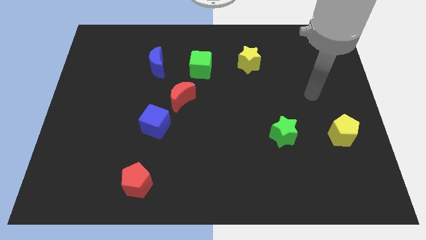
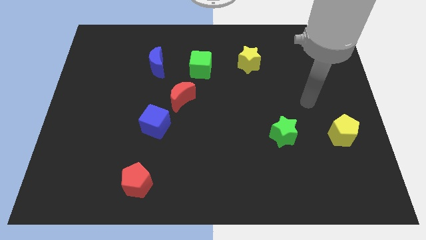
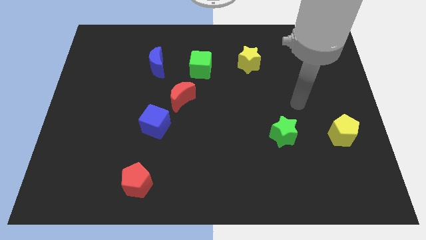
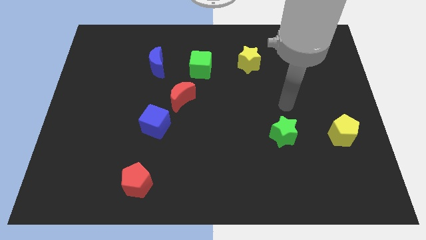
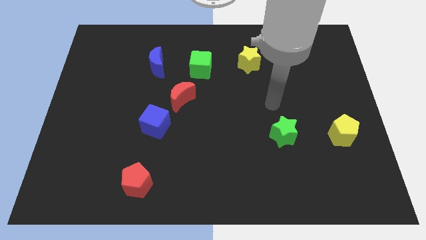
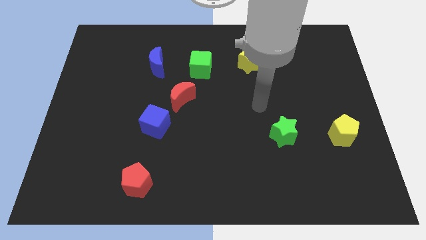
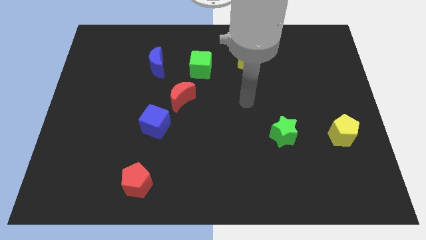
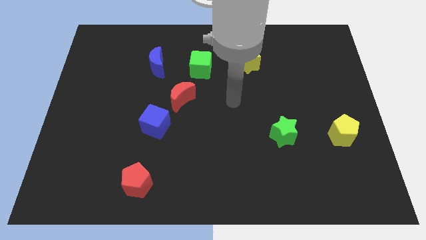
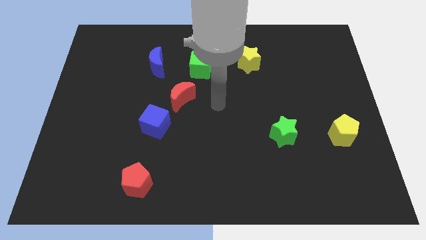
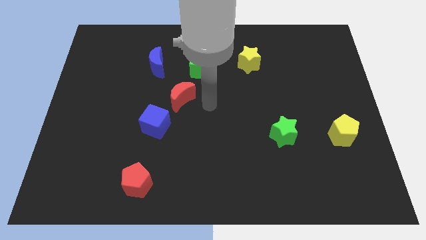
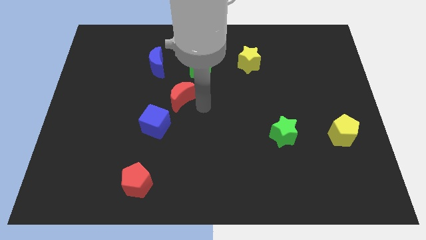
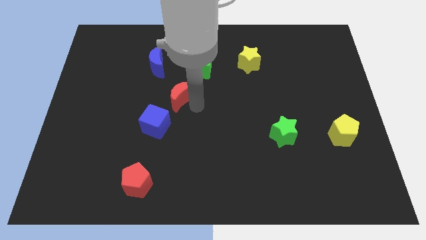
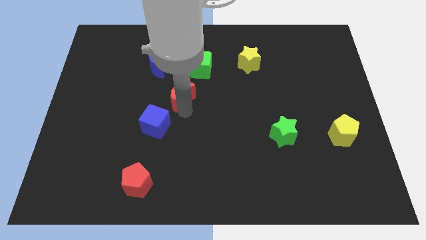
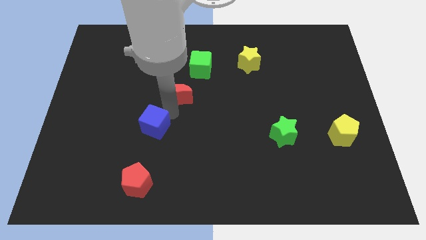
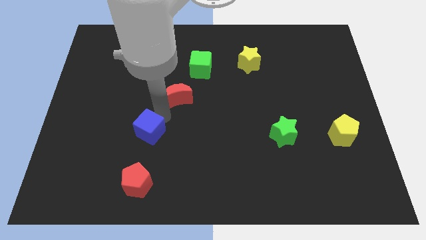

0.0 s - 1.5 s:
separate the red moon from the blue cube

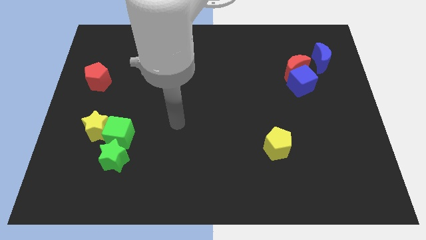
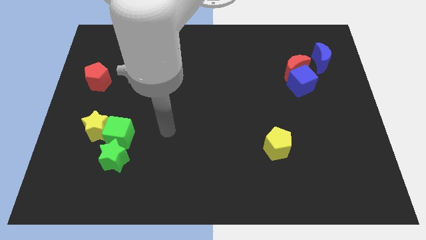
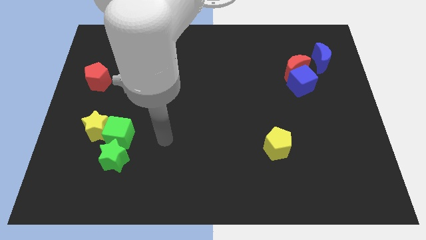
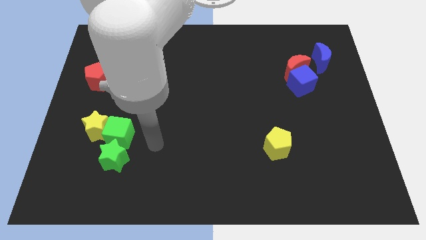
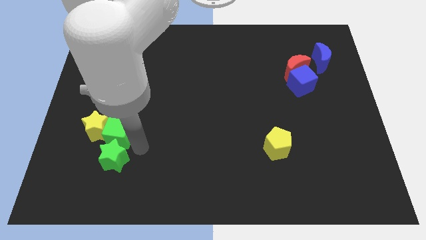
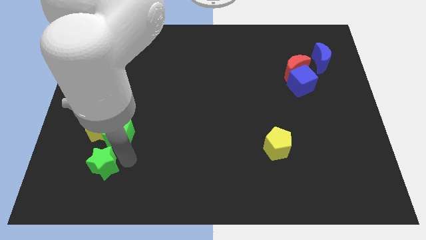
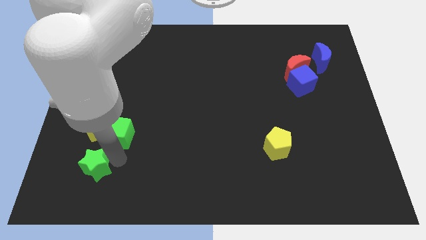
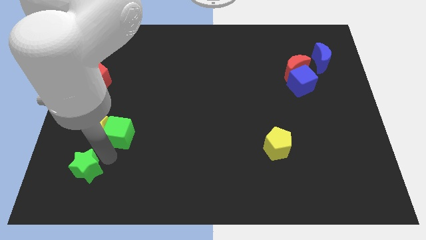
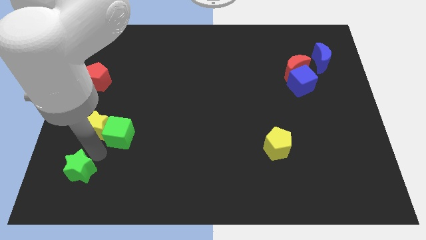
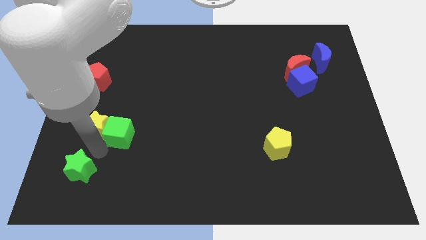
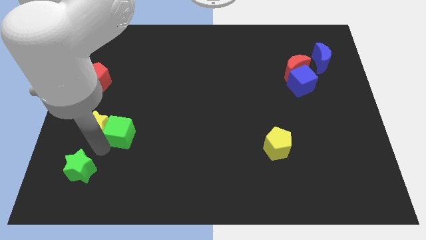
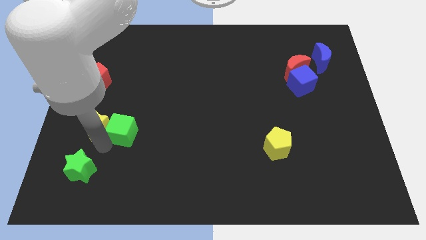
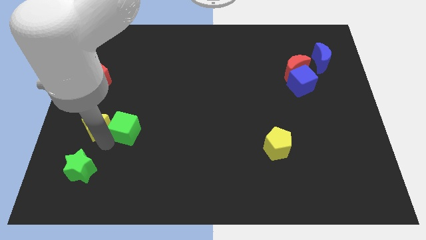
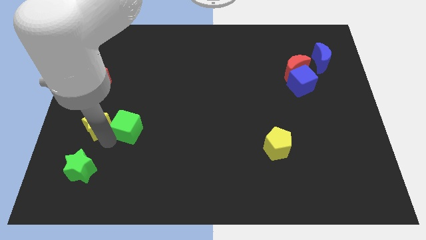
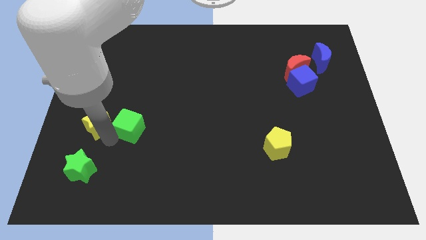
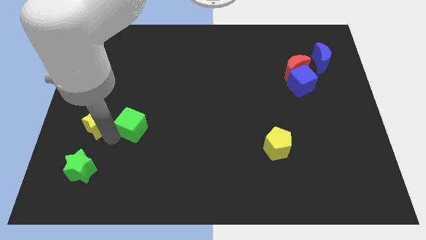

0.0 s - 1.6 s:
separate the green cube from the yellow star and green star

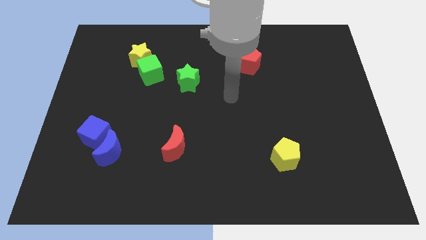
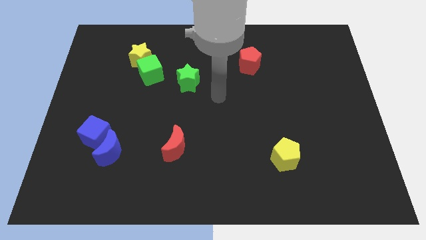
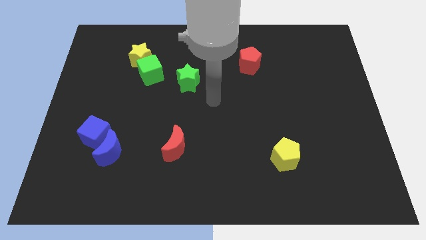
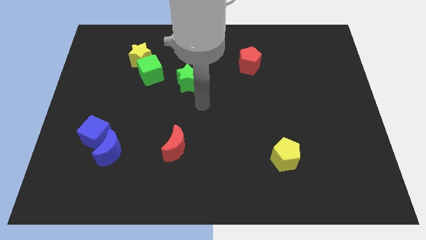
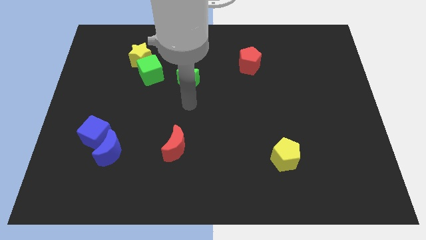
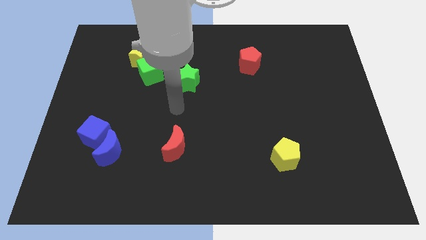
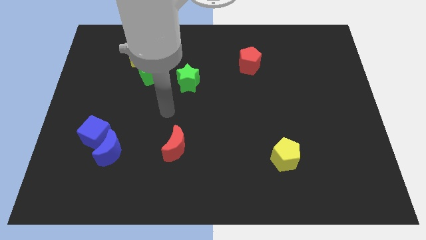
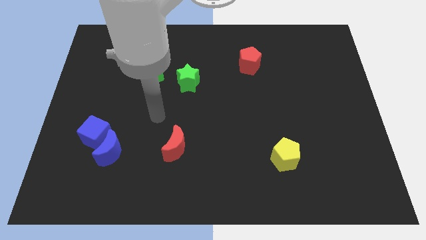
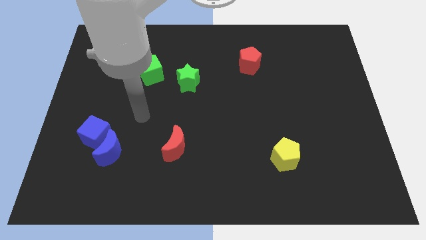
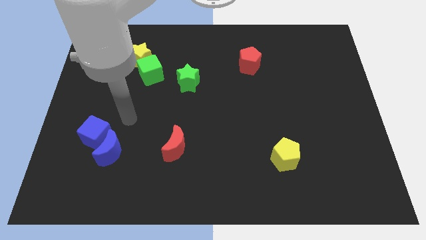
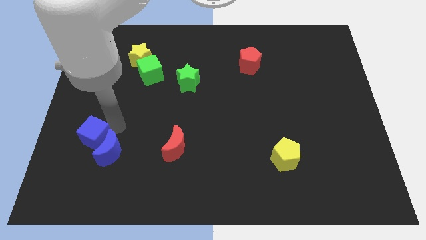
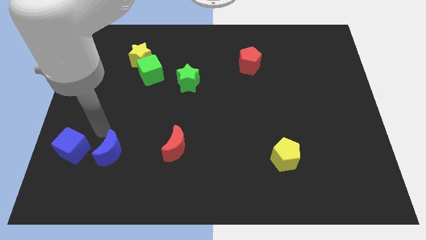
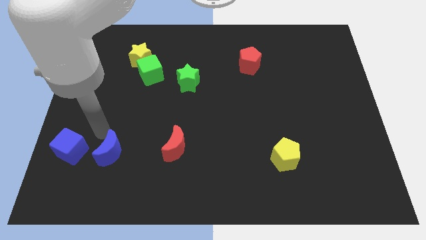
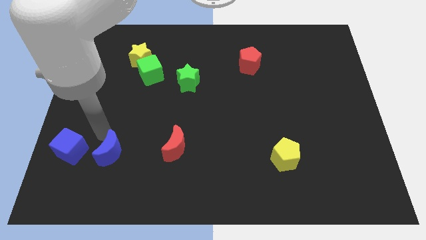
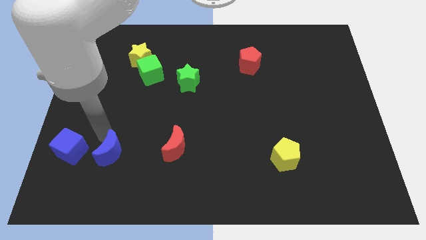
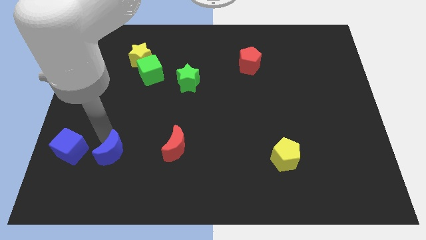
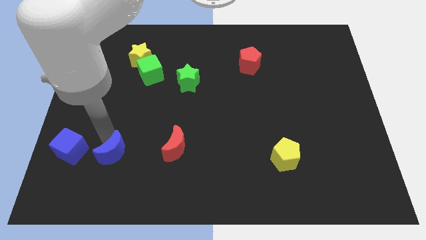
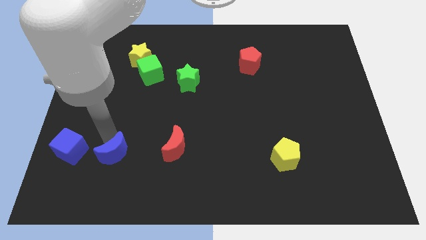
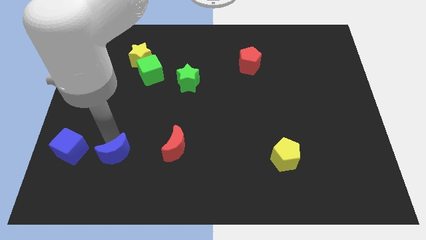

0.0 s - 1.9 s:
pull the blue moon apart from the blue cube

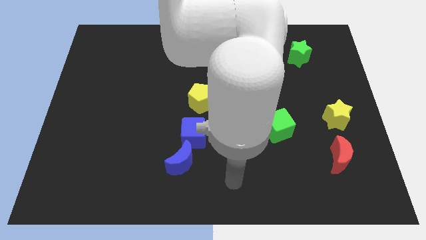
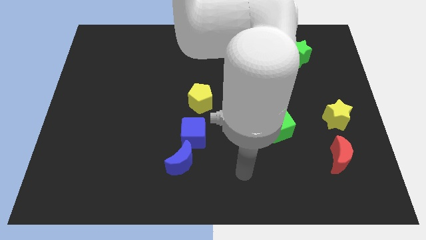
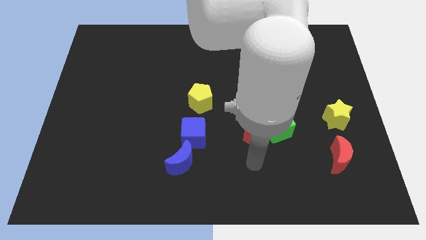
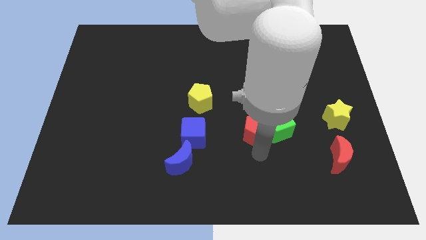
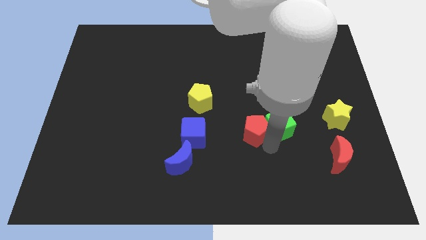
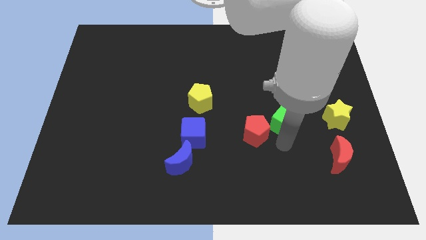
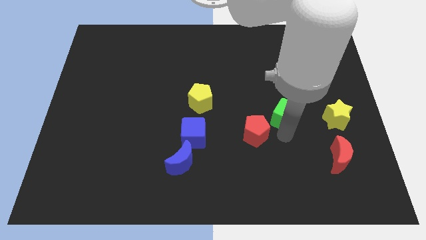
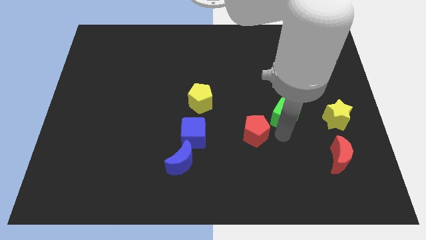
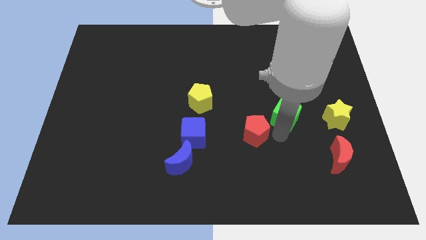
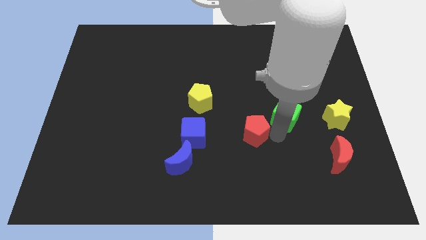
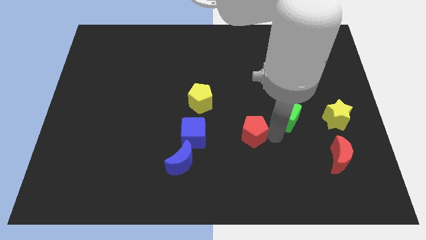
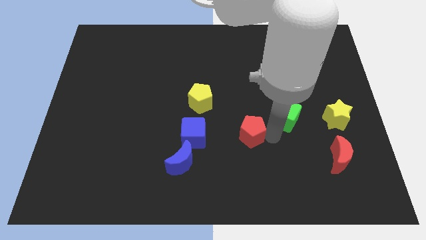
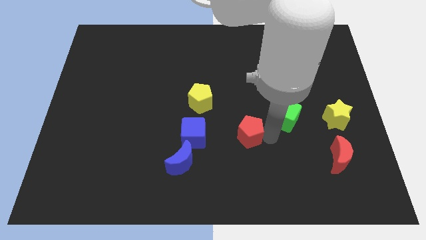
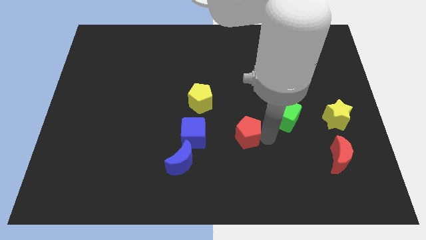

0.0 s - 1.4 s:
move the red pentagon away from the green cube

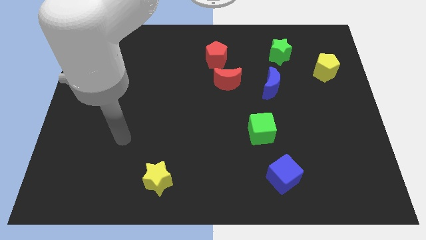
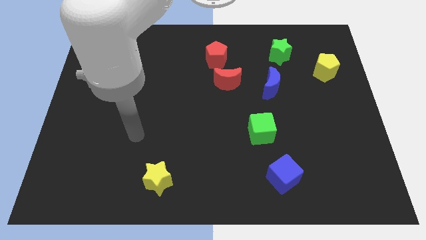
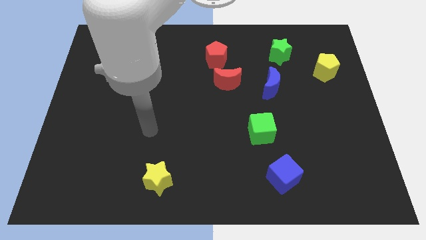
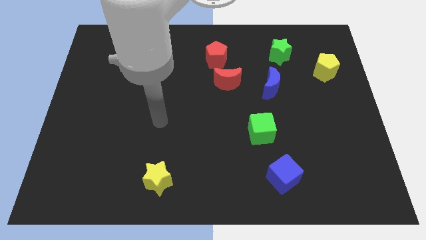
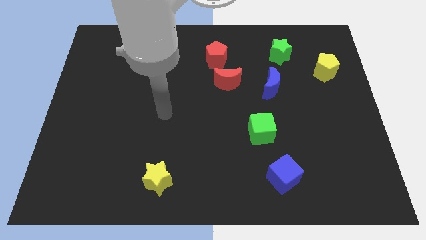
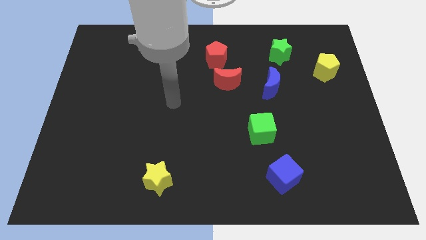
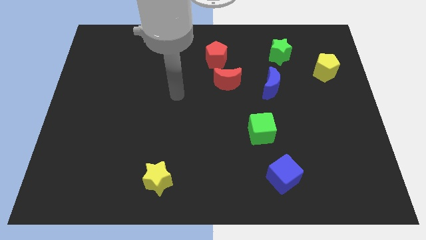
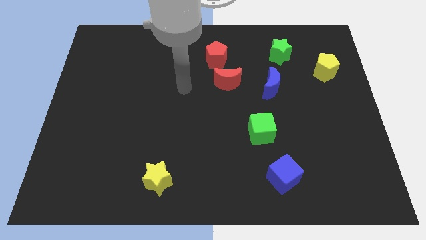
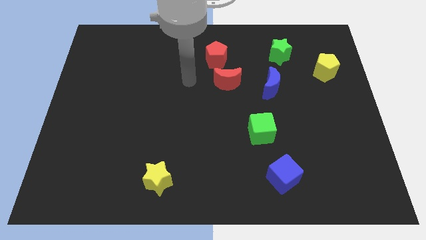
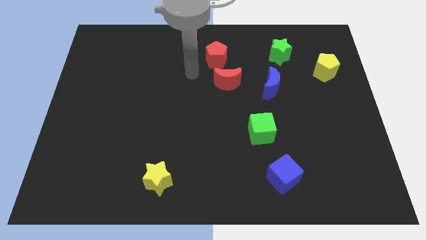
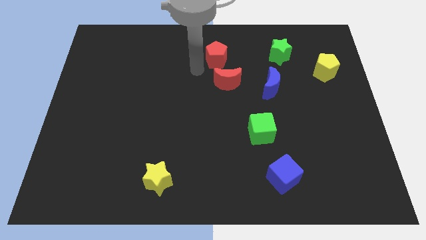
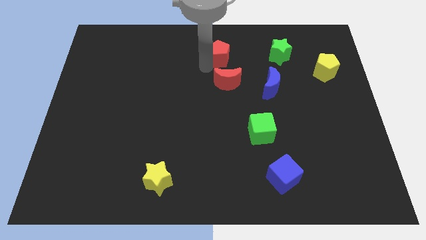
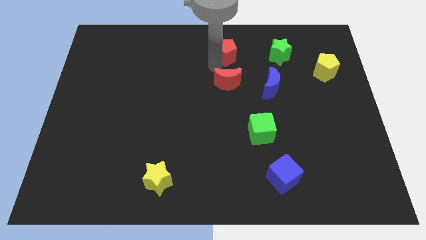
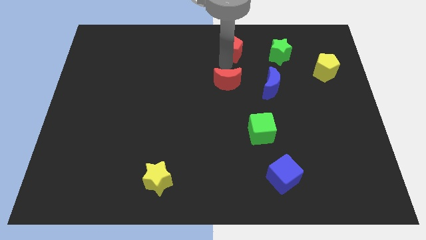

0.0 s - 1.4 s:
separate the red moon from the red pentagon

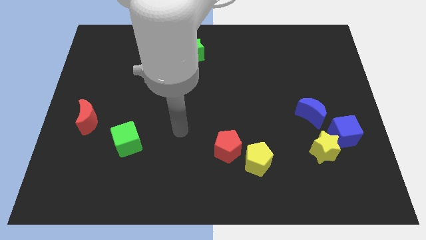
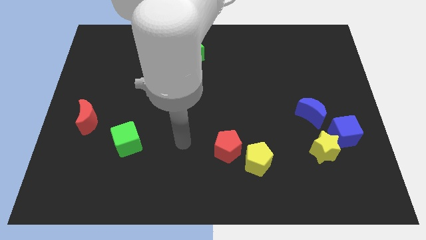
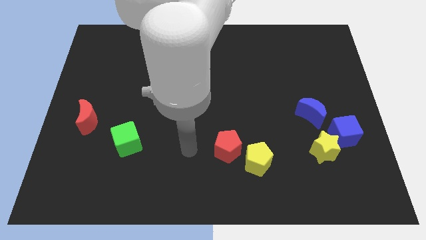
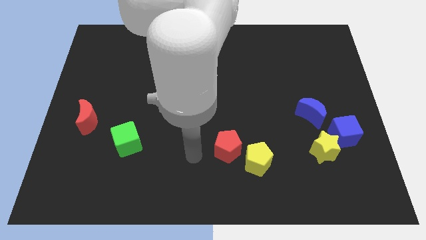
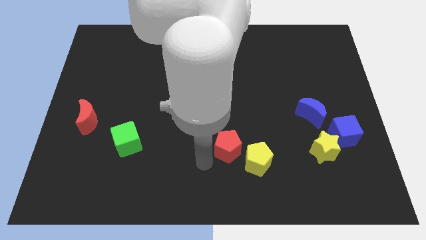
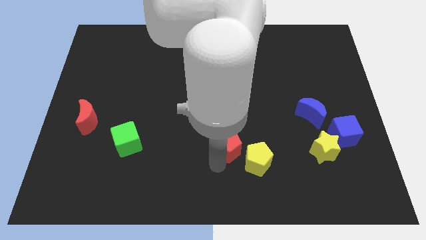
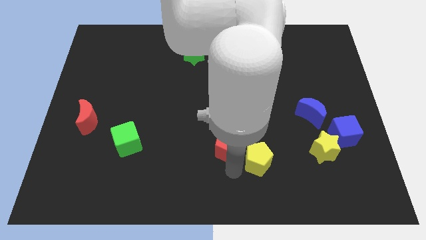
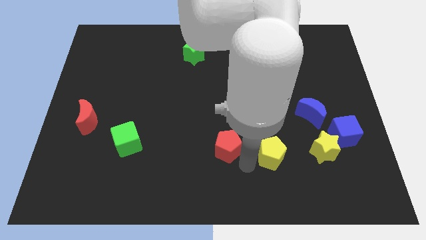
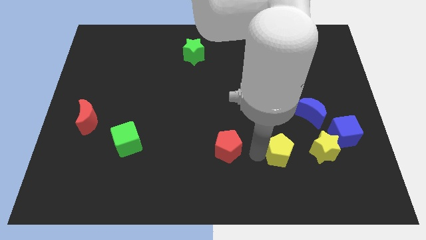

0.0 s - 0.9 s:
pull the red pentagon apart from the yellow pentagon

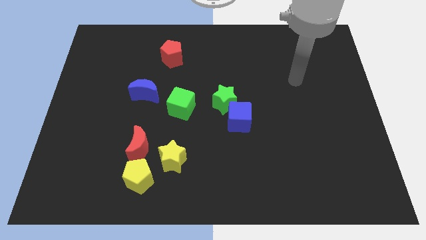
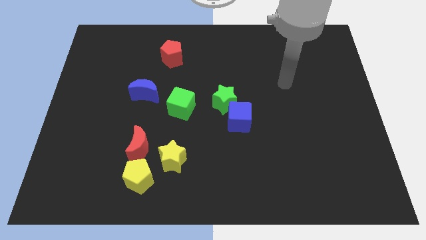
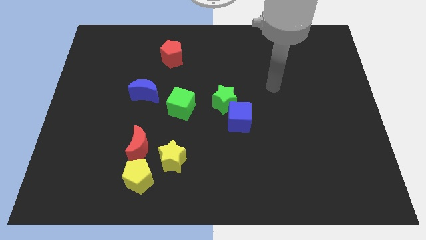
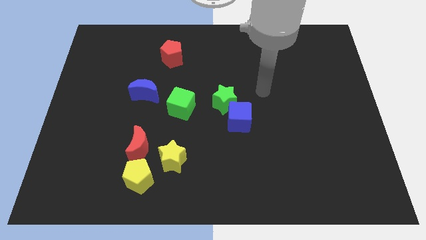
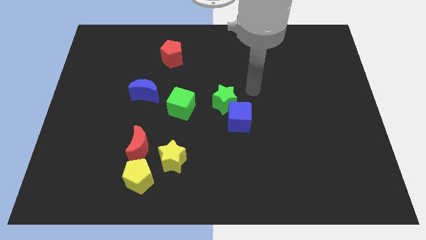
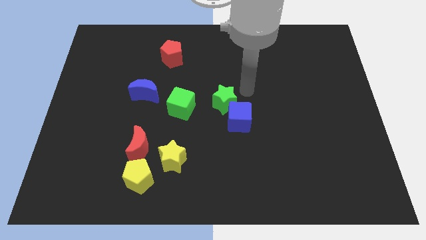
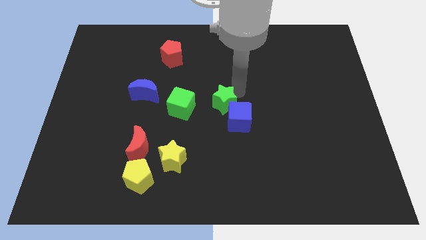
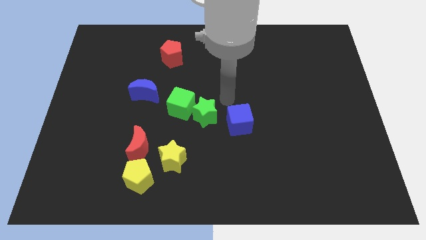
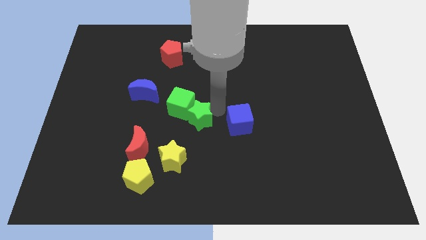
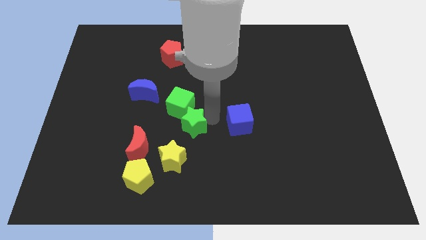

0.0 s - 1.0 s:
separate the blue cube from the green star
